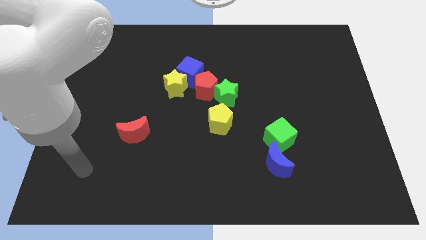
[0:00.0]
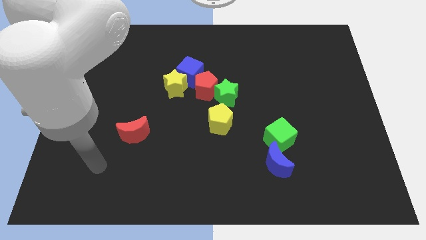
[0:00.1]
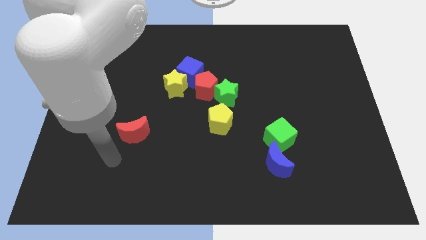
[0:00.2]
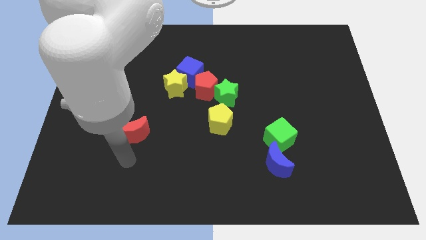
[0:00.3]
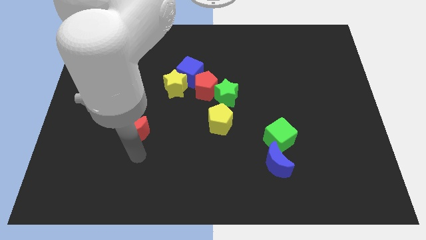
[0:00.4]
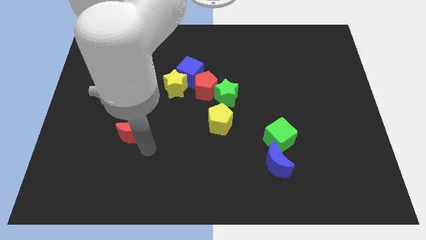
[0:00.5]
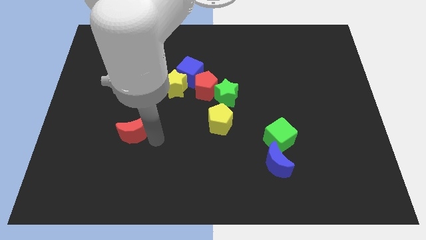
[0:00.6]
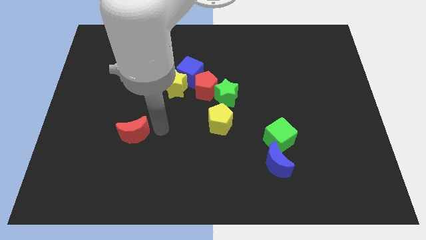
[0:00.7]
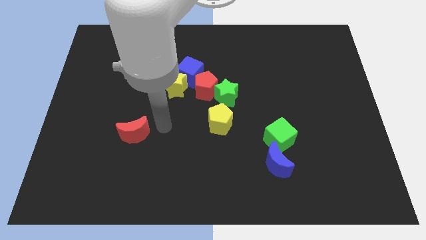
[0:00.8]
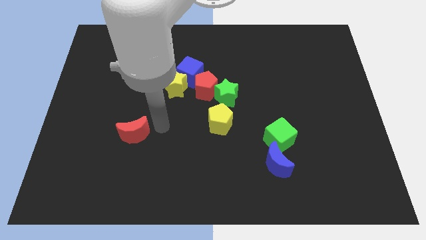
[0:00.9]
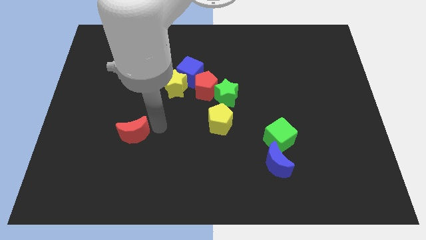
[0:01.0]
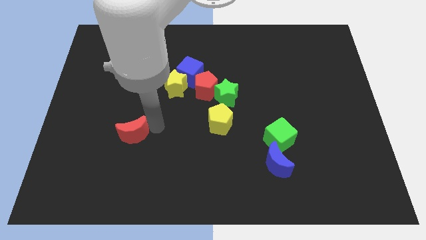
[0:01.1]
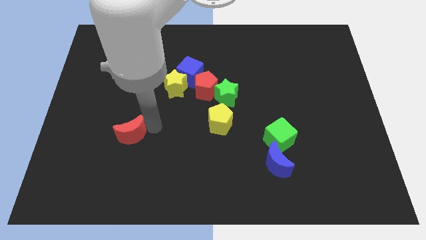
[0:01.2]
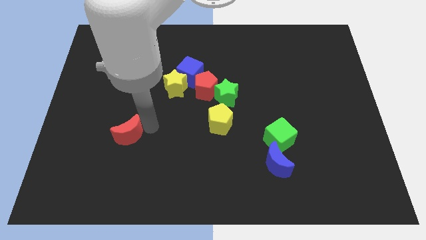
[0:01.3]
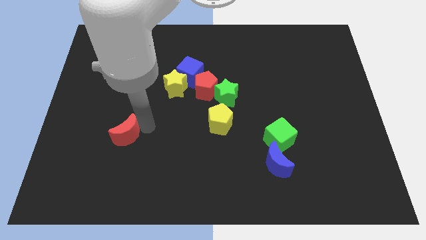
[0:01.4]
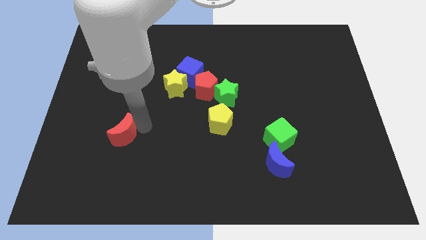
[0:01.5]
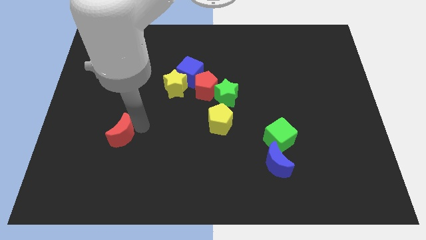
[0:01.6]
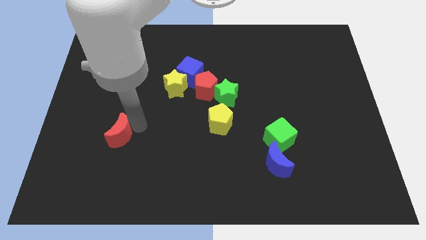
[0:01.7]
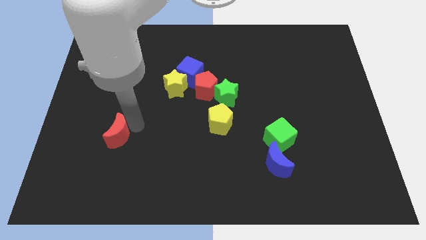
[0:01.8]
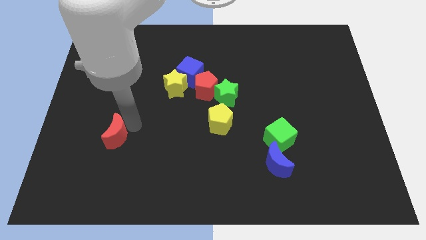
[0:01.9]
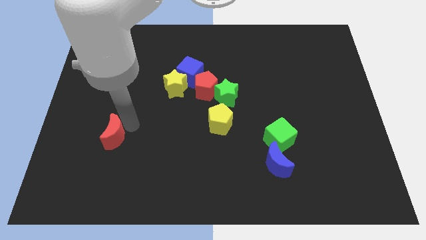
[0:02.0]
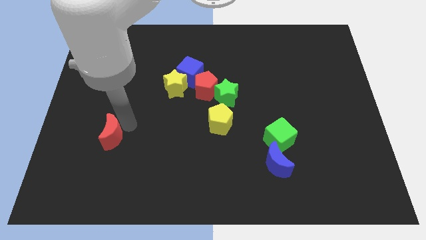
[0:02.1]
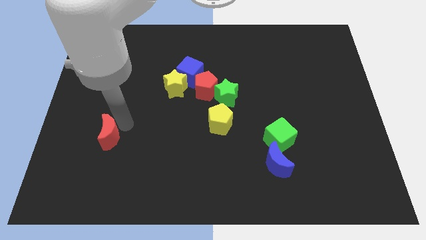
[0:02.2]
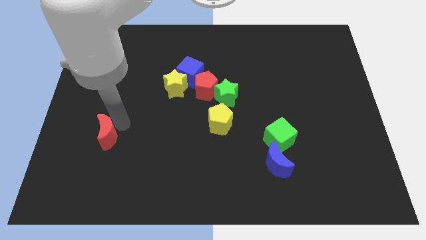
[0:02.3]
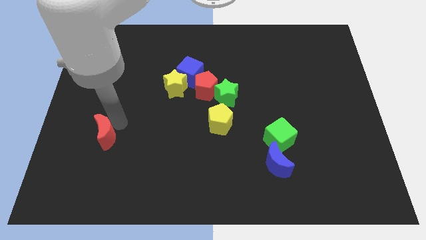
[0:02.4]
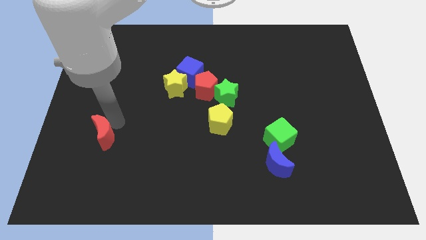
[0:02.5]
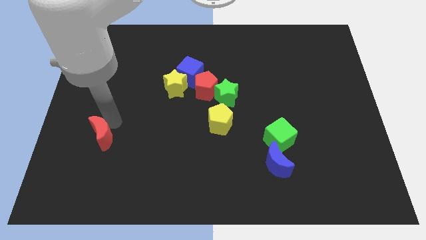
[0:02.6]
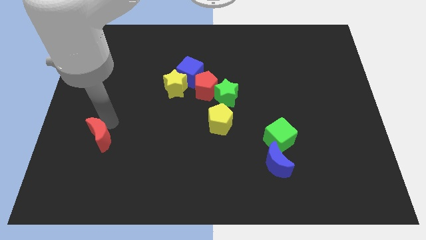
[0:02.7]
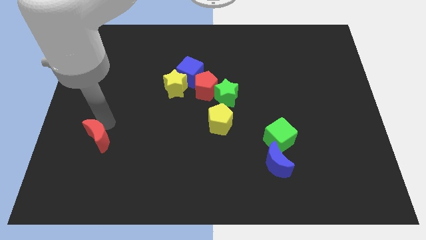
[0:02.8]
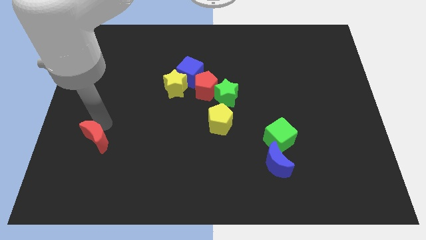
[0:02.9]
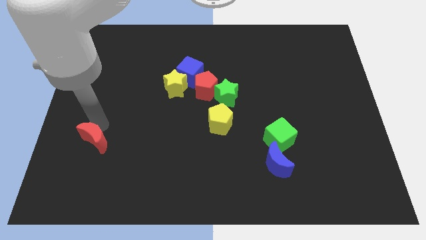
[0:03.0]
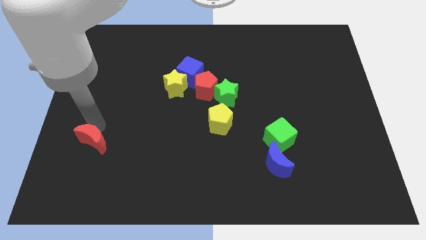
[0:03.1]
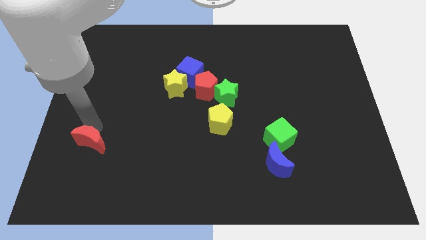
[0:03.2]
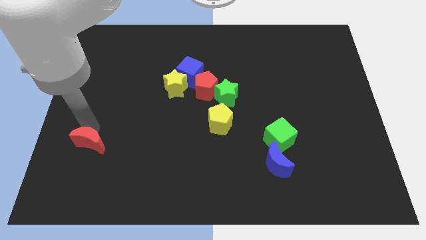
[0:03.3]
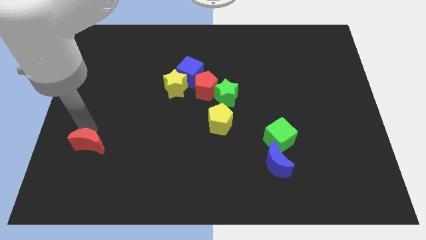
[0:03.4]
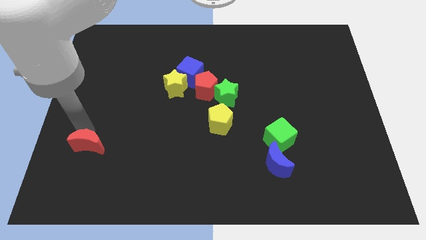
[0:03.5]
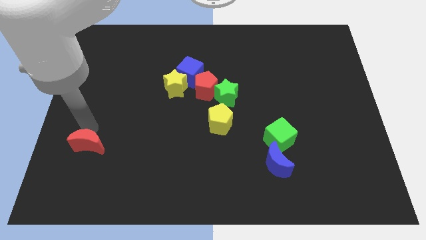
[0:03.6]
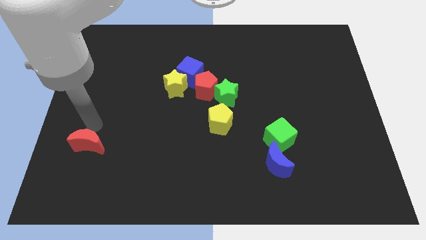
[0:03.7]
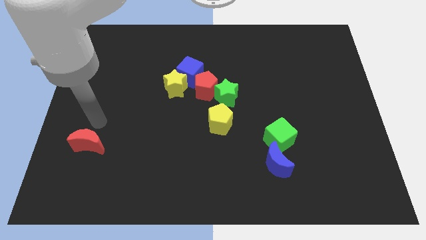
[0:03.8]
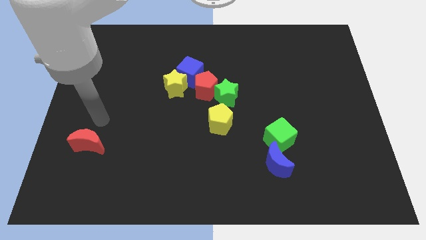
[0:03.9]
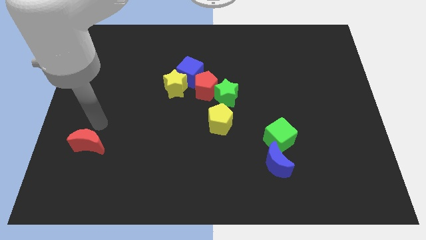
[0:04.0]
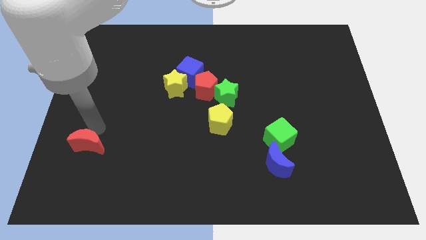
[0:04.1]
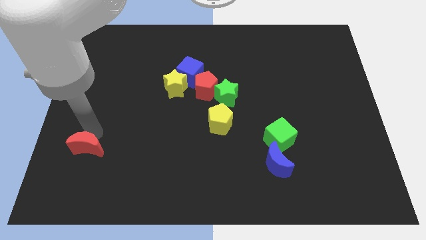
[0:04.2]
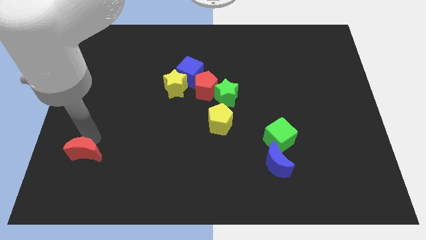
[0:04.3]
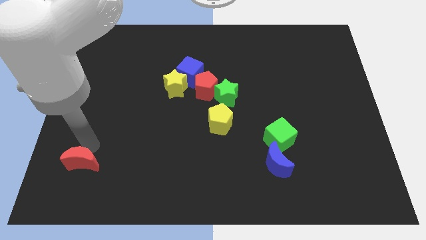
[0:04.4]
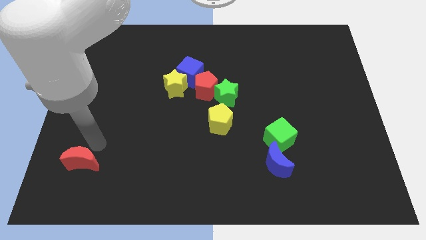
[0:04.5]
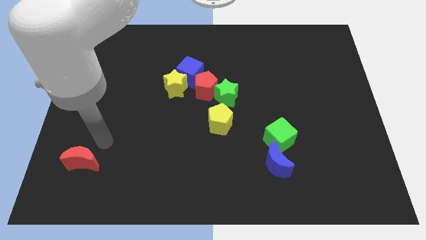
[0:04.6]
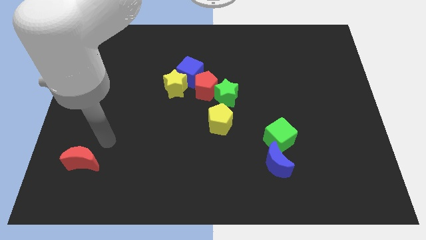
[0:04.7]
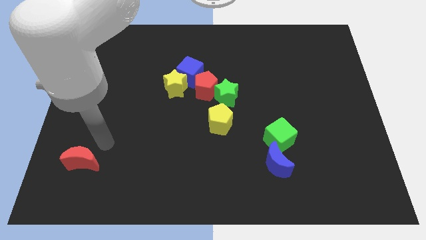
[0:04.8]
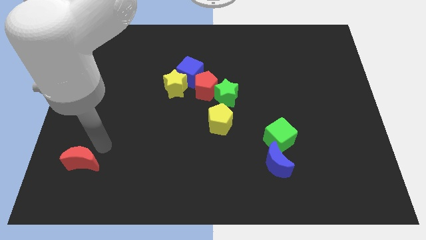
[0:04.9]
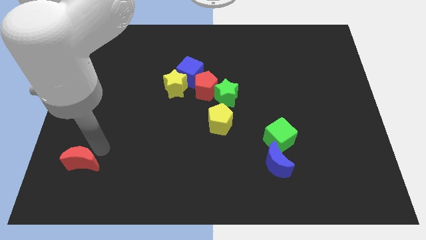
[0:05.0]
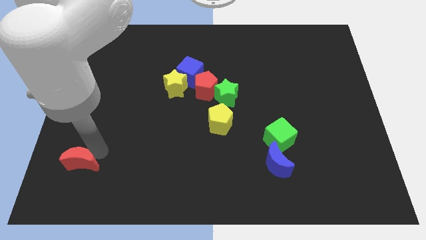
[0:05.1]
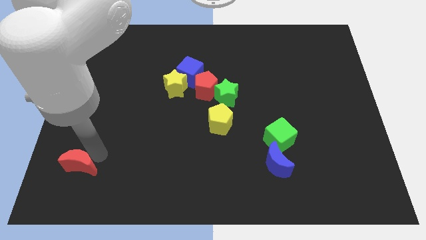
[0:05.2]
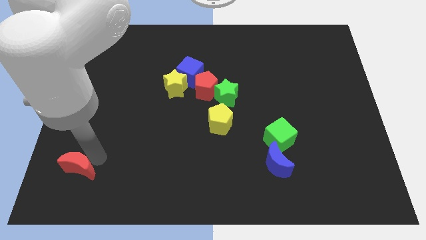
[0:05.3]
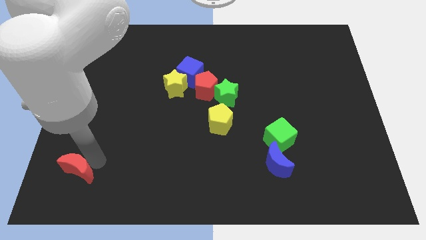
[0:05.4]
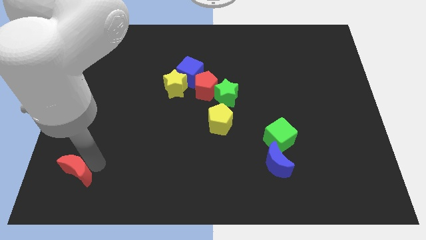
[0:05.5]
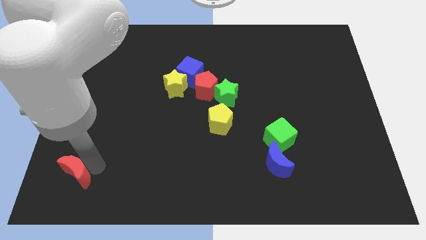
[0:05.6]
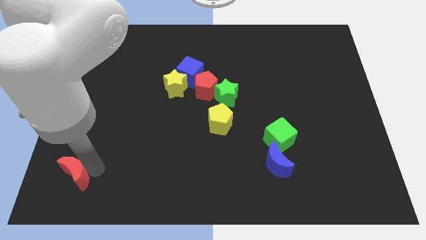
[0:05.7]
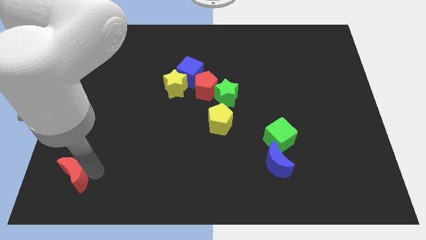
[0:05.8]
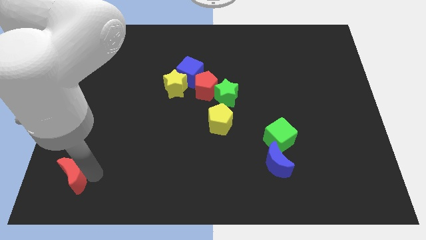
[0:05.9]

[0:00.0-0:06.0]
slide the red moon to the bottom left

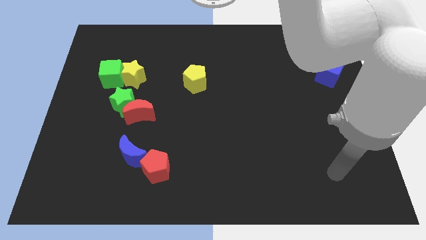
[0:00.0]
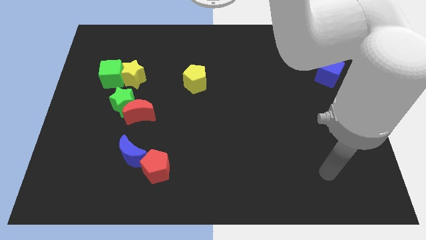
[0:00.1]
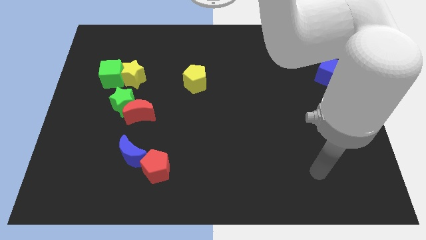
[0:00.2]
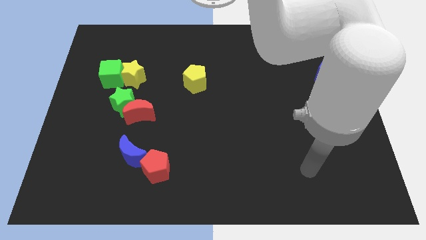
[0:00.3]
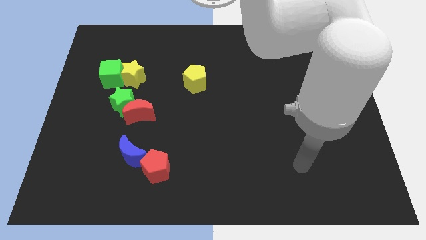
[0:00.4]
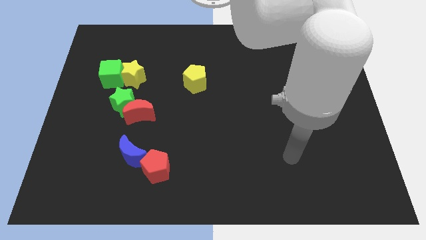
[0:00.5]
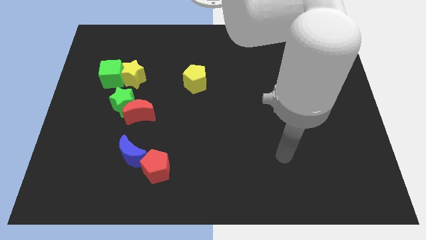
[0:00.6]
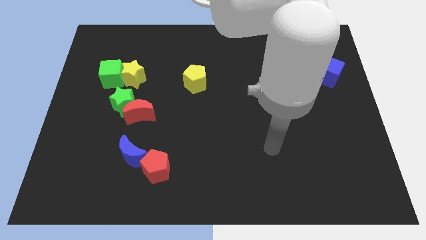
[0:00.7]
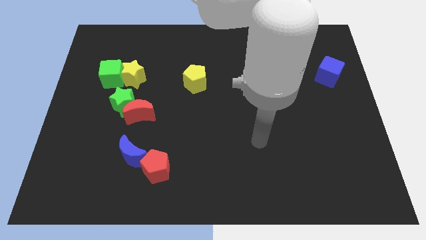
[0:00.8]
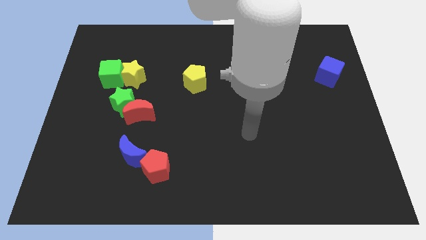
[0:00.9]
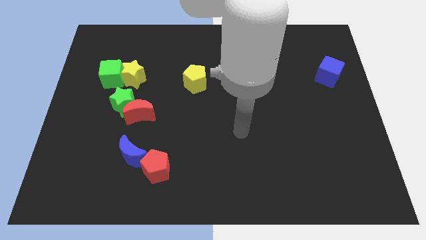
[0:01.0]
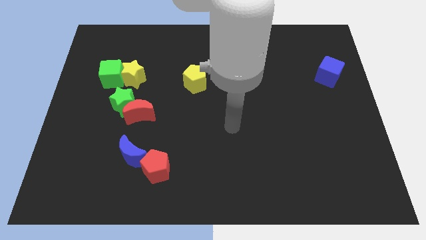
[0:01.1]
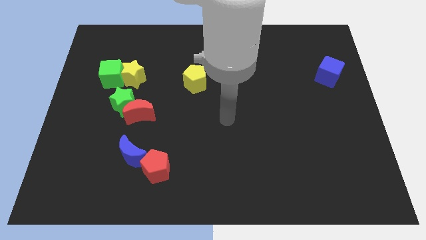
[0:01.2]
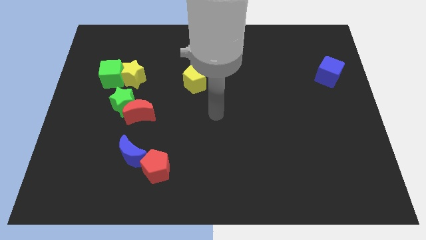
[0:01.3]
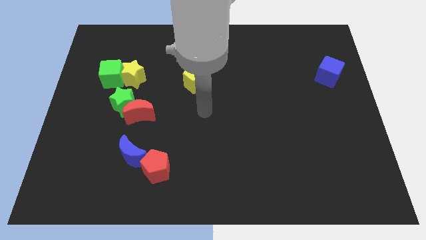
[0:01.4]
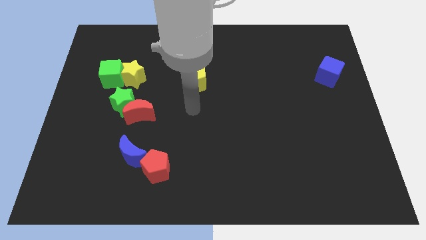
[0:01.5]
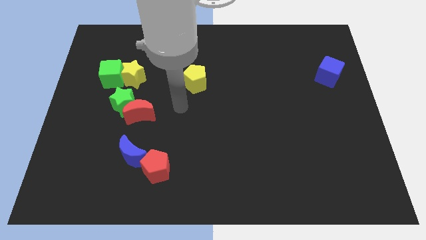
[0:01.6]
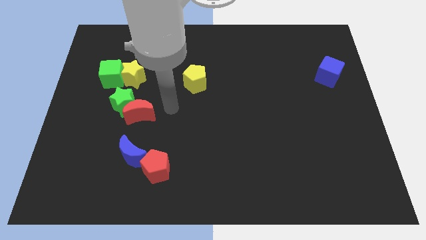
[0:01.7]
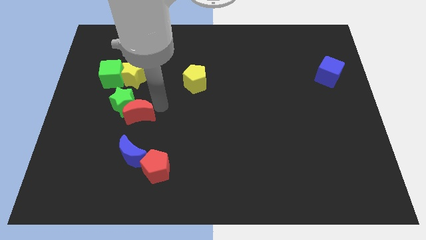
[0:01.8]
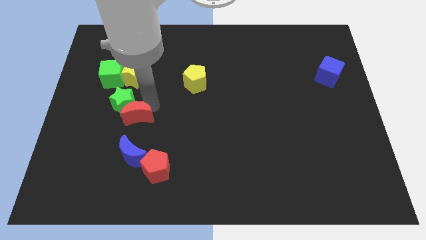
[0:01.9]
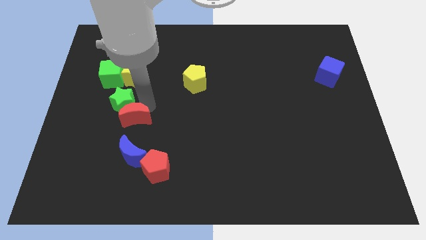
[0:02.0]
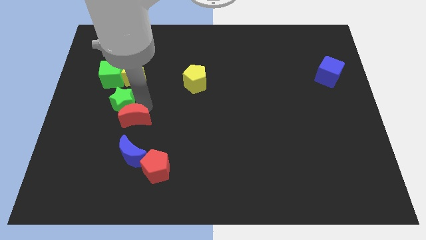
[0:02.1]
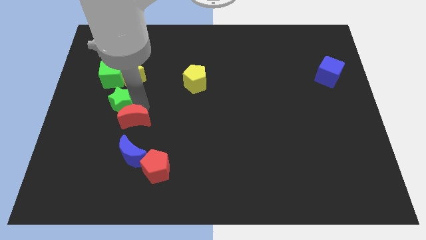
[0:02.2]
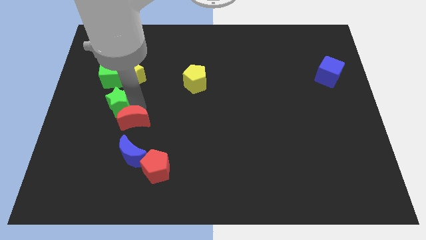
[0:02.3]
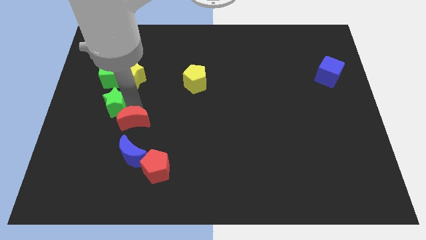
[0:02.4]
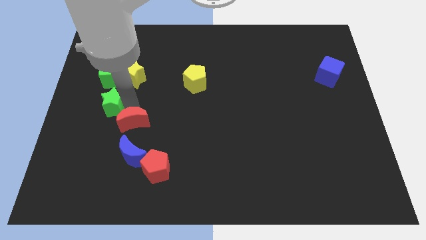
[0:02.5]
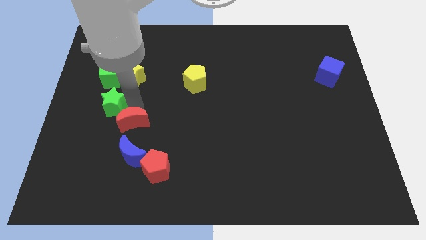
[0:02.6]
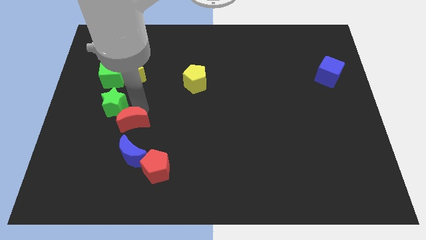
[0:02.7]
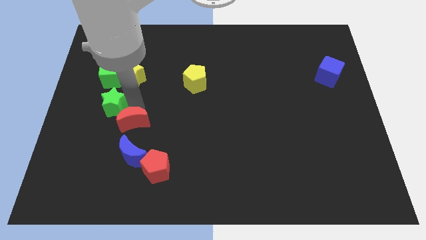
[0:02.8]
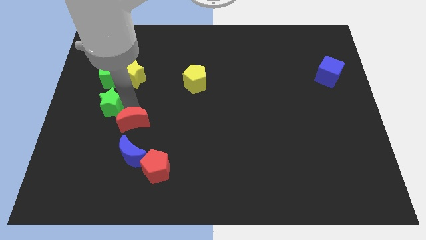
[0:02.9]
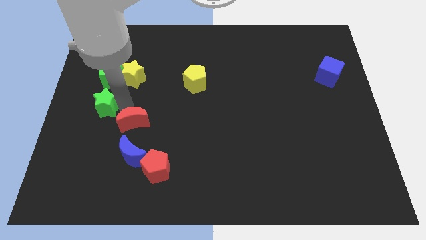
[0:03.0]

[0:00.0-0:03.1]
put the green star to the left side
